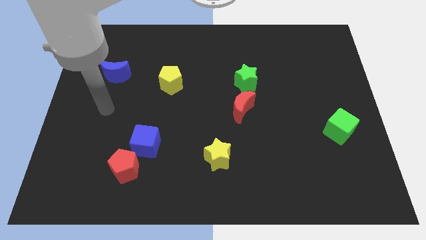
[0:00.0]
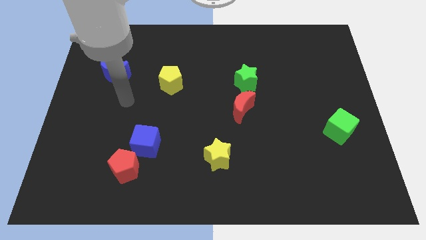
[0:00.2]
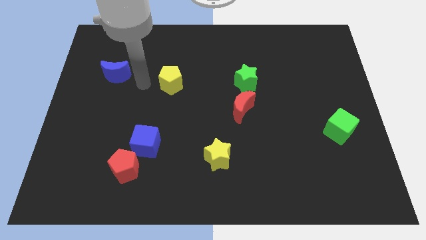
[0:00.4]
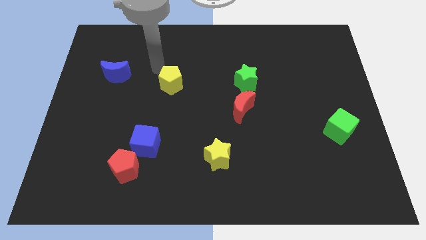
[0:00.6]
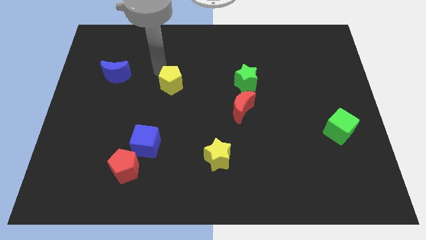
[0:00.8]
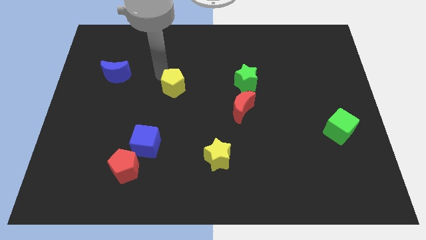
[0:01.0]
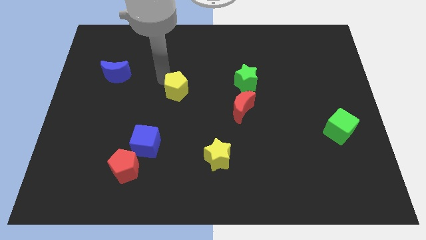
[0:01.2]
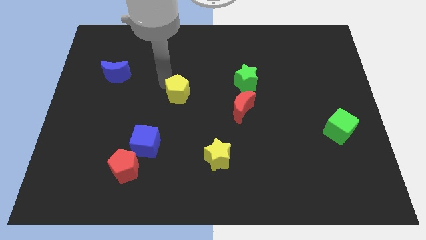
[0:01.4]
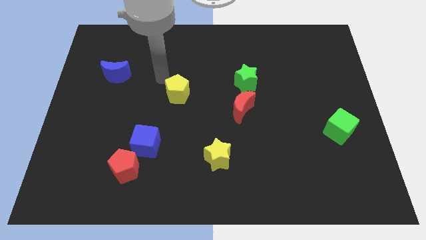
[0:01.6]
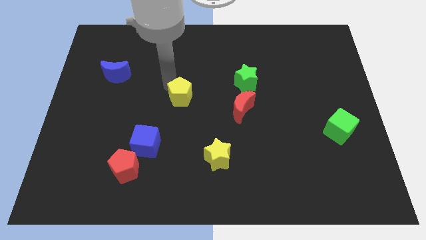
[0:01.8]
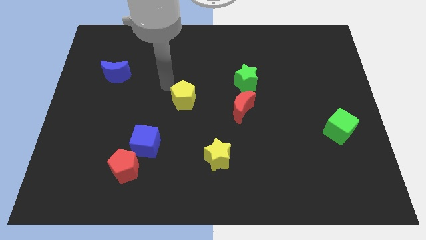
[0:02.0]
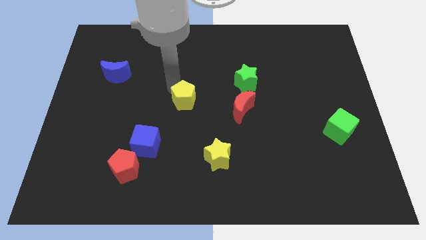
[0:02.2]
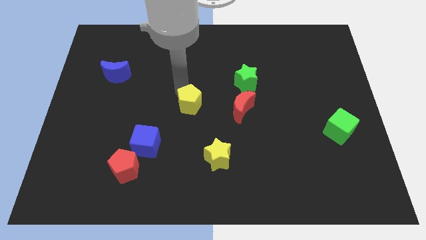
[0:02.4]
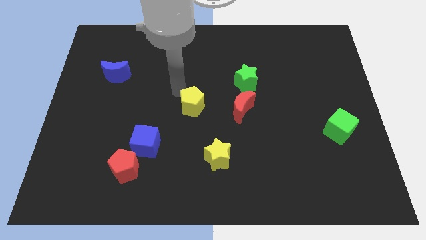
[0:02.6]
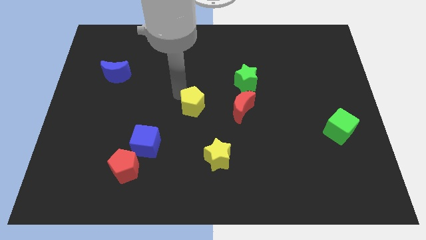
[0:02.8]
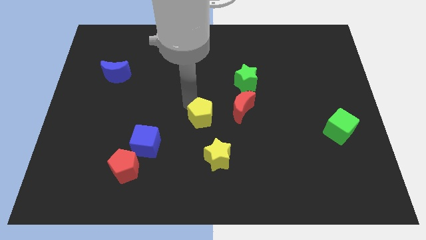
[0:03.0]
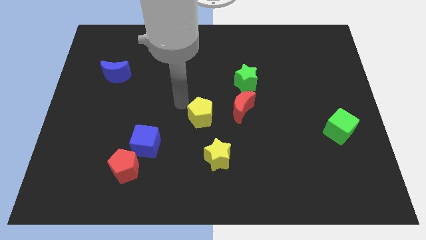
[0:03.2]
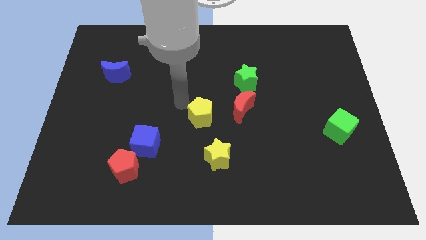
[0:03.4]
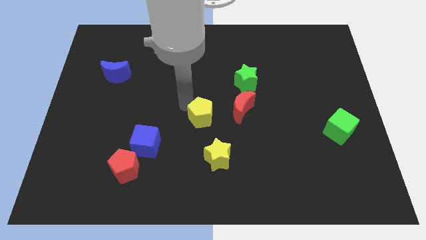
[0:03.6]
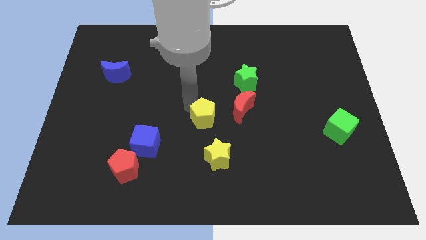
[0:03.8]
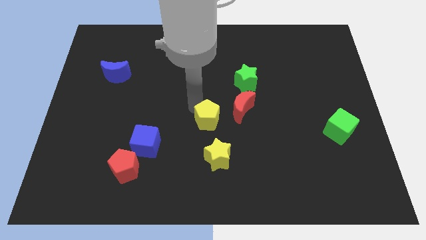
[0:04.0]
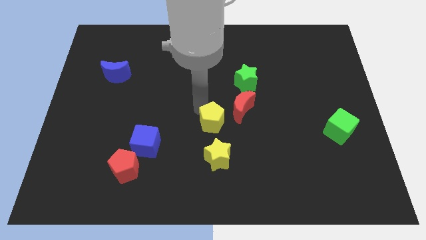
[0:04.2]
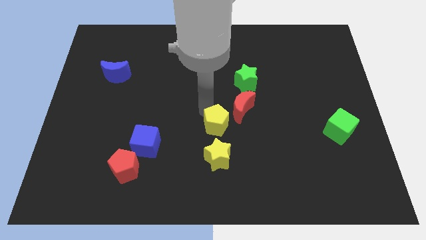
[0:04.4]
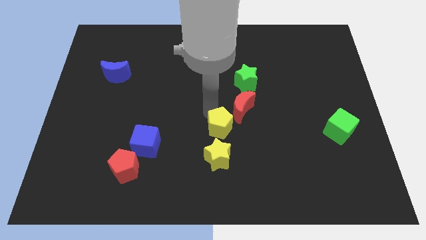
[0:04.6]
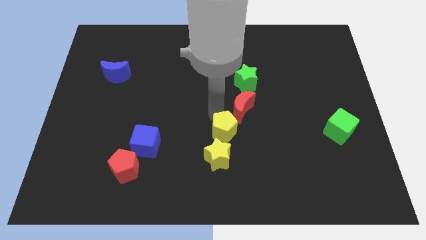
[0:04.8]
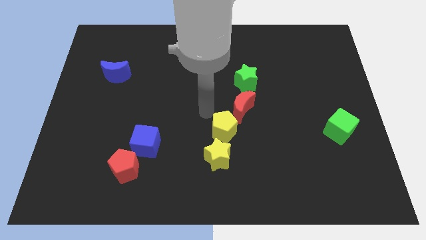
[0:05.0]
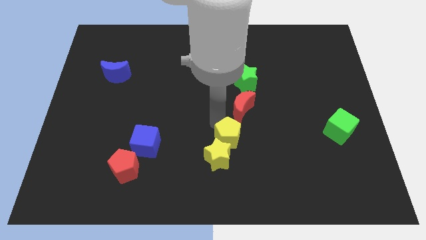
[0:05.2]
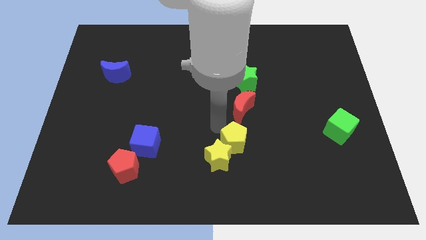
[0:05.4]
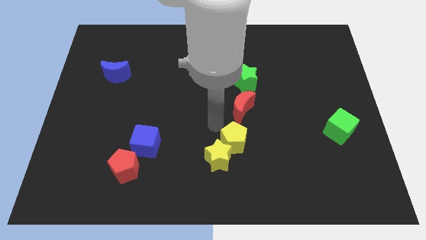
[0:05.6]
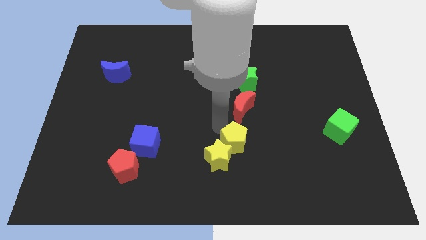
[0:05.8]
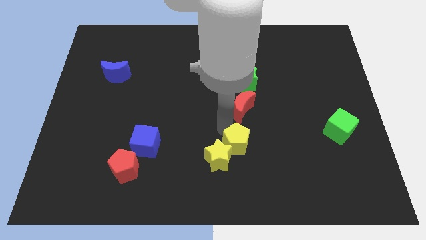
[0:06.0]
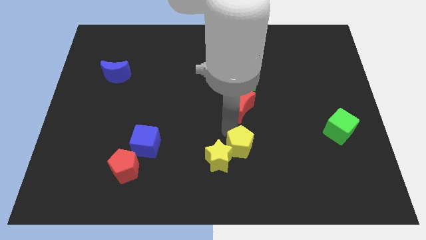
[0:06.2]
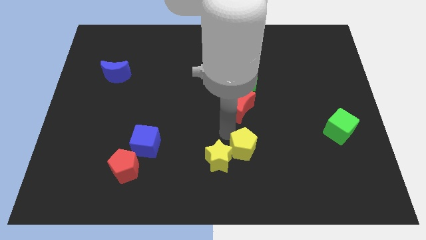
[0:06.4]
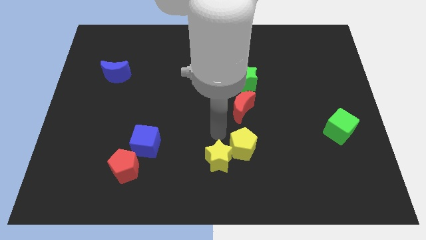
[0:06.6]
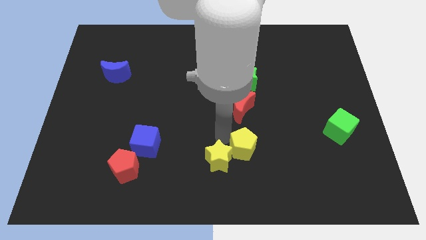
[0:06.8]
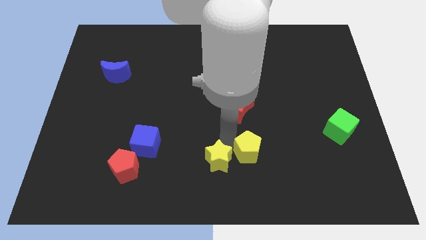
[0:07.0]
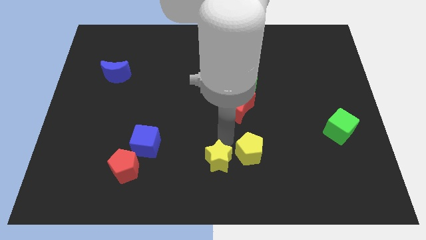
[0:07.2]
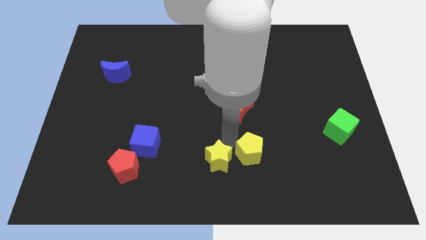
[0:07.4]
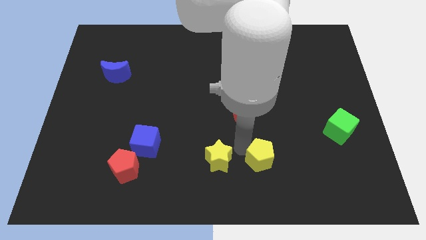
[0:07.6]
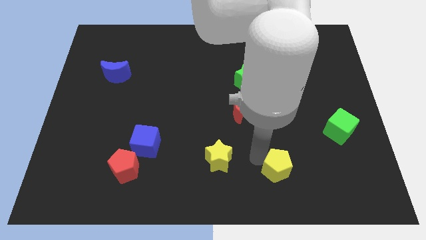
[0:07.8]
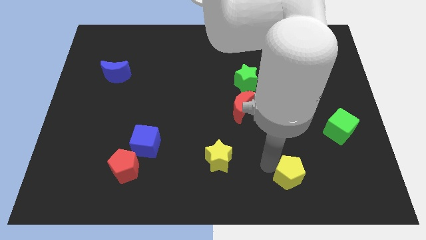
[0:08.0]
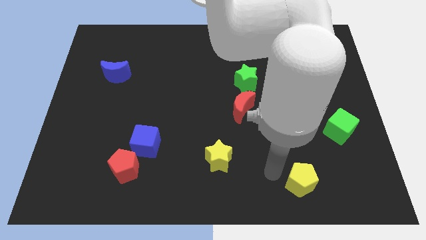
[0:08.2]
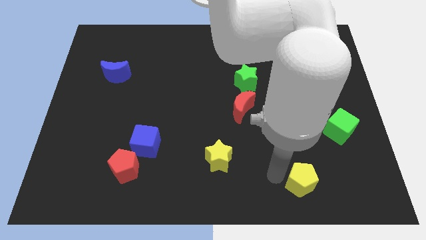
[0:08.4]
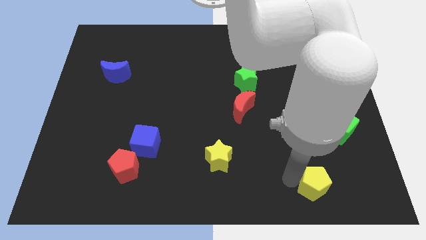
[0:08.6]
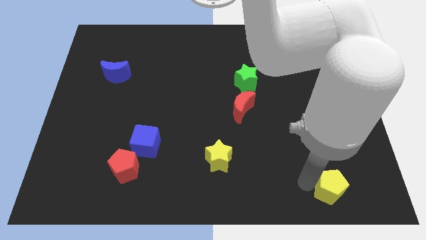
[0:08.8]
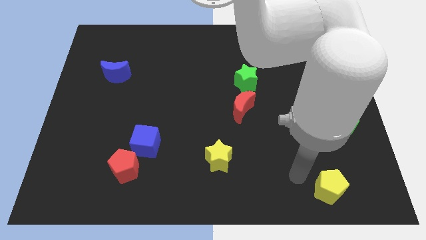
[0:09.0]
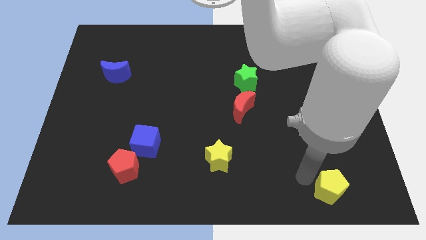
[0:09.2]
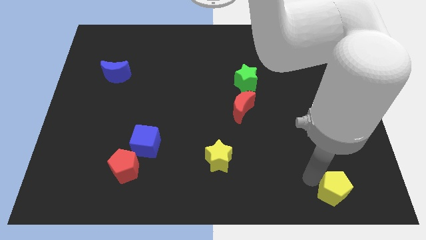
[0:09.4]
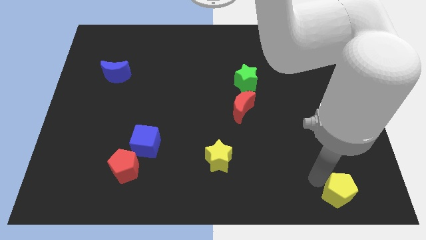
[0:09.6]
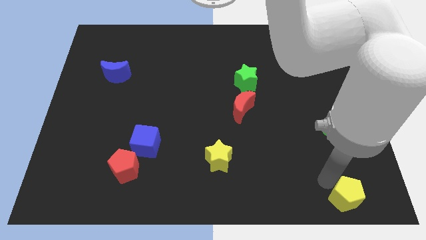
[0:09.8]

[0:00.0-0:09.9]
put the yellow pentagon to the bottom right of the board

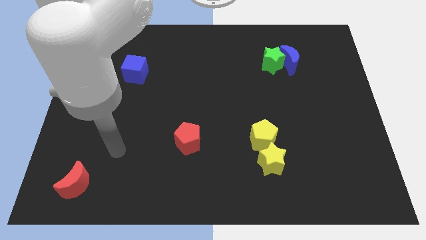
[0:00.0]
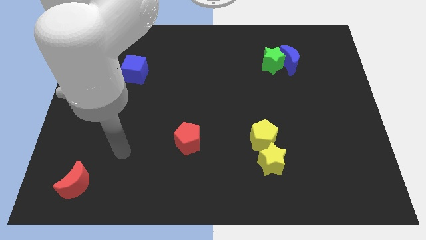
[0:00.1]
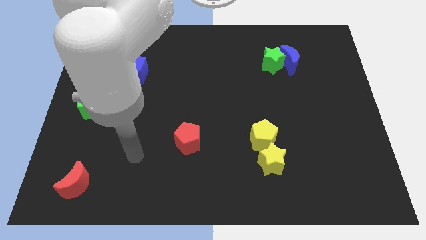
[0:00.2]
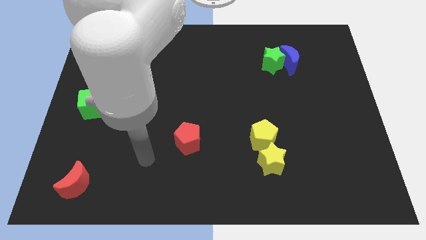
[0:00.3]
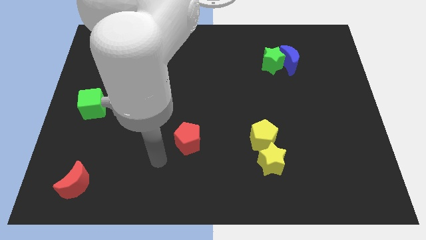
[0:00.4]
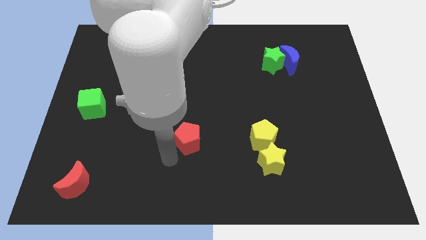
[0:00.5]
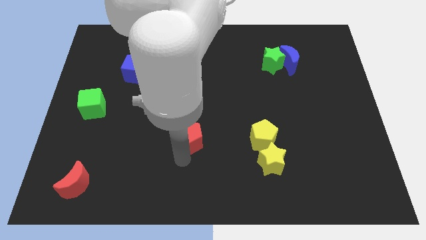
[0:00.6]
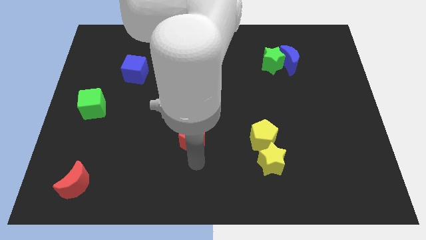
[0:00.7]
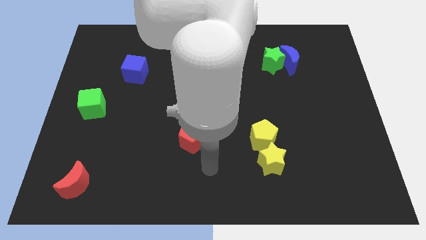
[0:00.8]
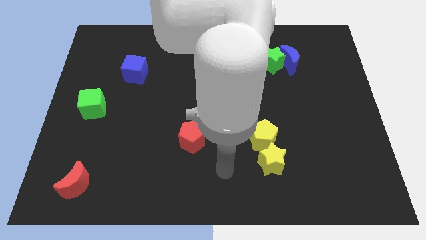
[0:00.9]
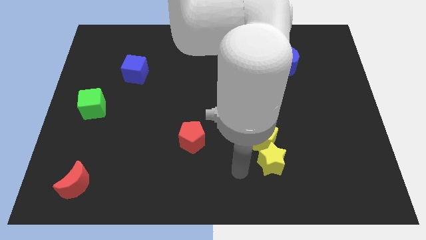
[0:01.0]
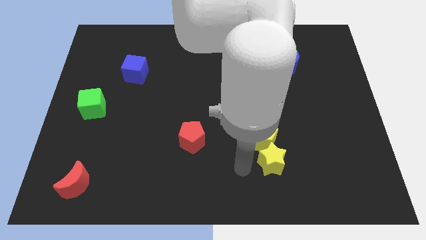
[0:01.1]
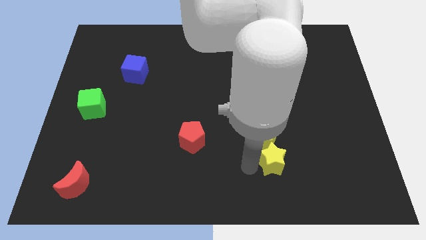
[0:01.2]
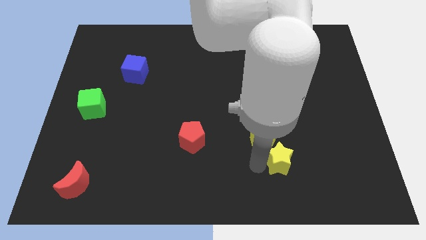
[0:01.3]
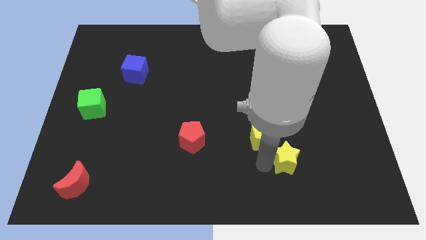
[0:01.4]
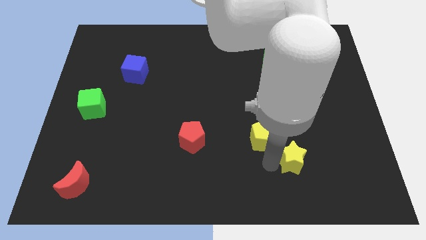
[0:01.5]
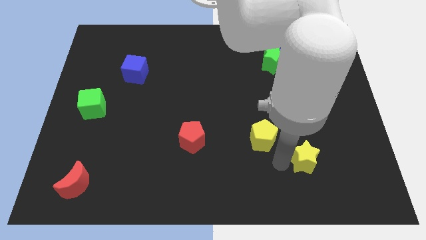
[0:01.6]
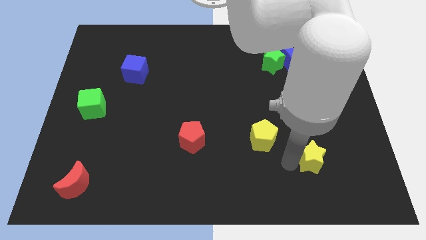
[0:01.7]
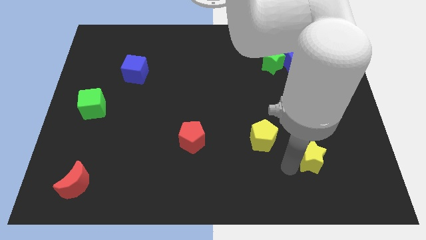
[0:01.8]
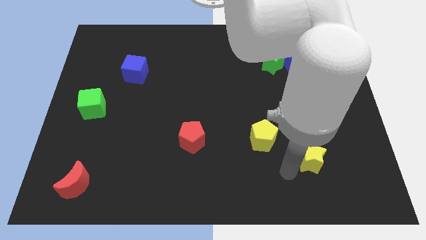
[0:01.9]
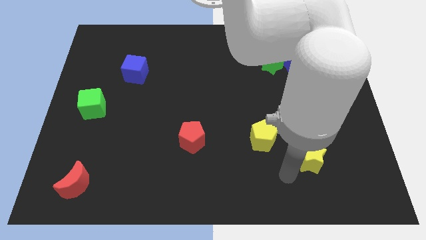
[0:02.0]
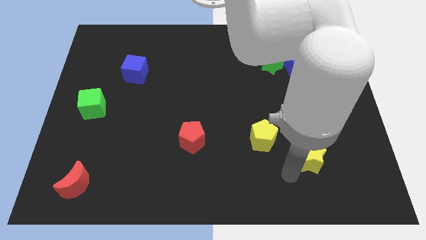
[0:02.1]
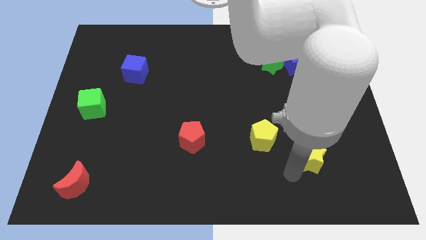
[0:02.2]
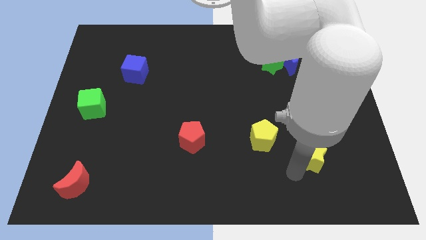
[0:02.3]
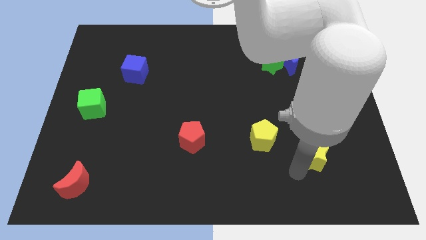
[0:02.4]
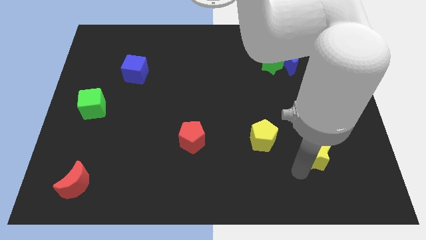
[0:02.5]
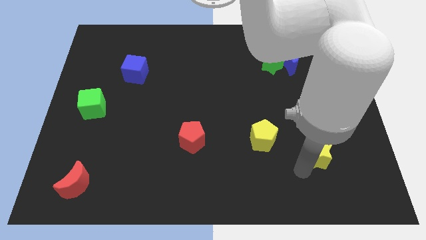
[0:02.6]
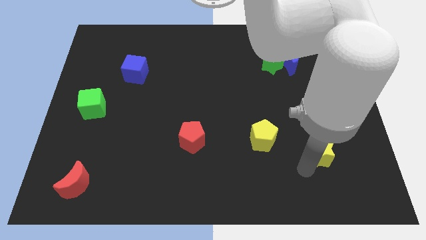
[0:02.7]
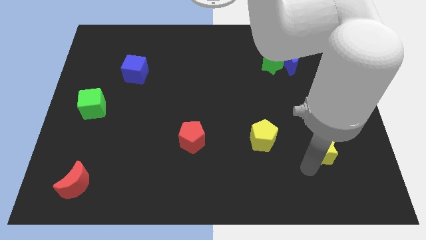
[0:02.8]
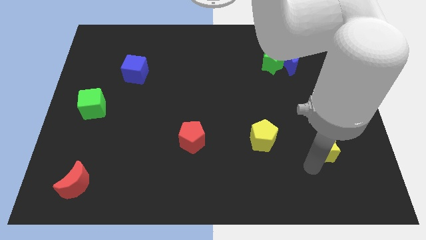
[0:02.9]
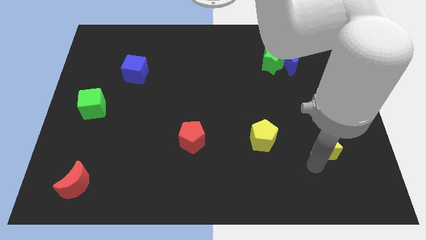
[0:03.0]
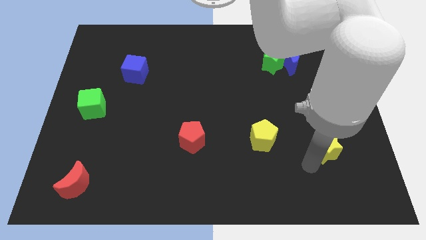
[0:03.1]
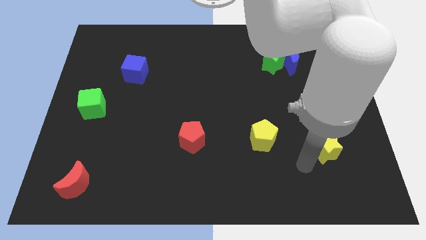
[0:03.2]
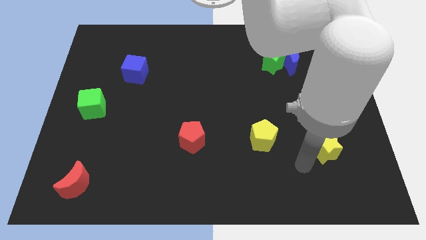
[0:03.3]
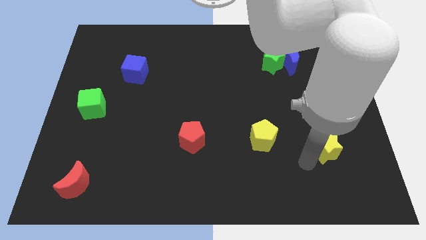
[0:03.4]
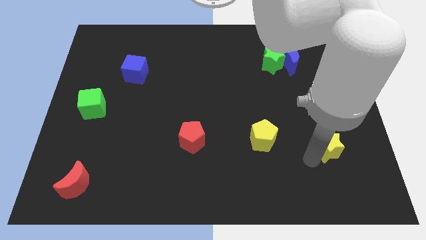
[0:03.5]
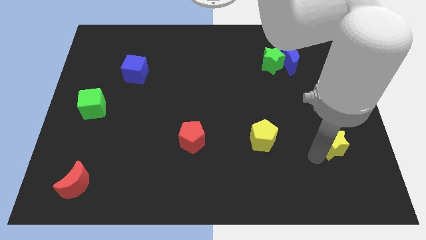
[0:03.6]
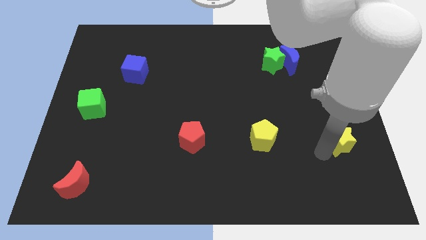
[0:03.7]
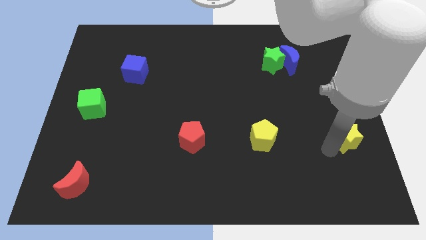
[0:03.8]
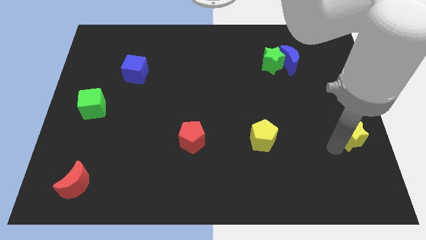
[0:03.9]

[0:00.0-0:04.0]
move the yellow star to the right side of the board
